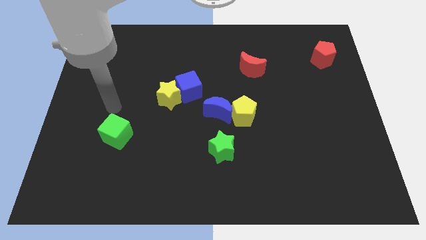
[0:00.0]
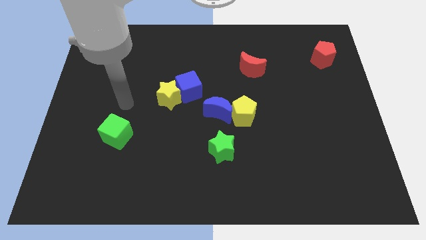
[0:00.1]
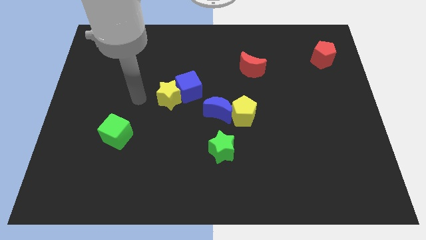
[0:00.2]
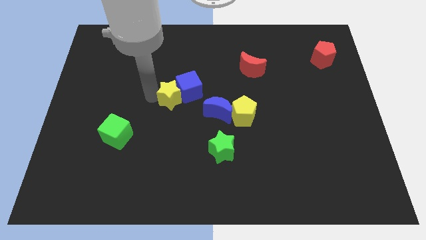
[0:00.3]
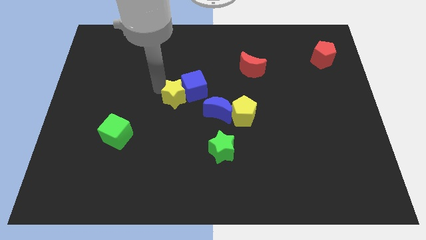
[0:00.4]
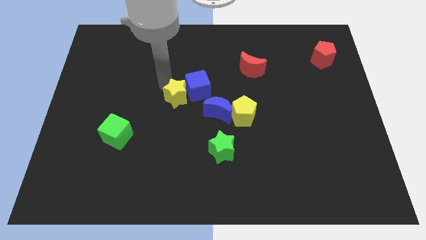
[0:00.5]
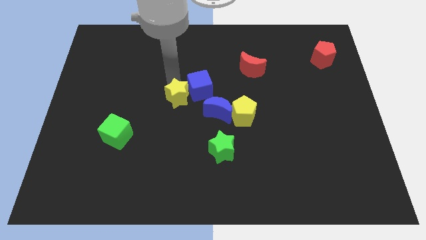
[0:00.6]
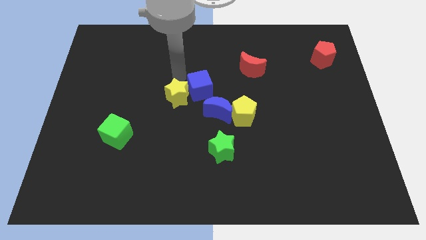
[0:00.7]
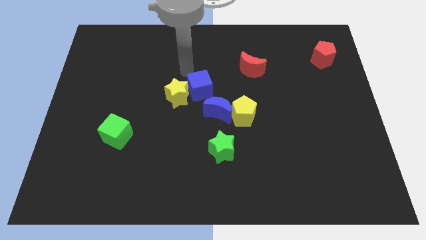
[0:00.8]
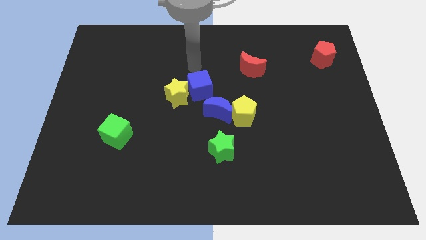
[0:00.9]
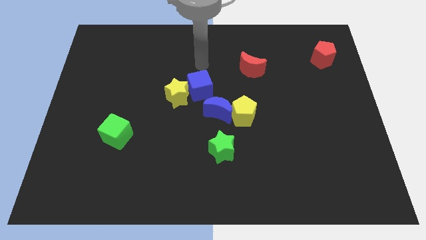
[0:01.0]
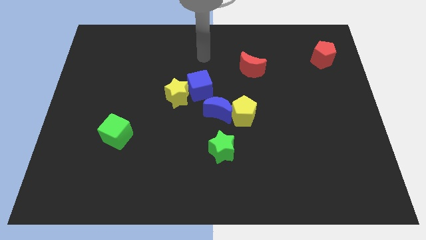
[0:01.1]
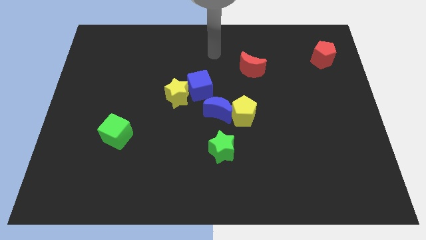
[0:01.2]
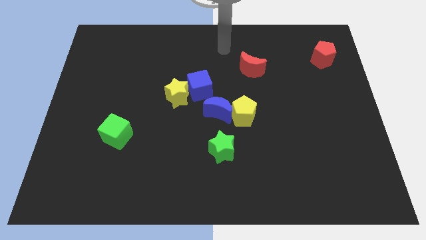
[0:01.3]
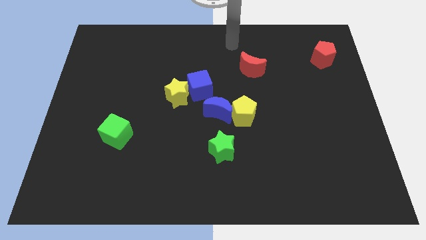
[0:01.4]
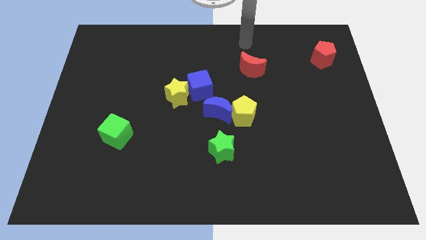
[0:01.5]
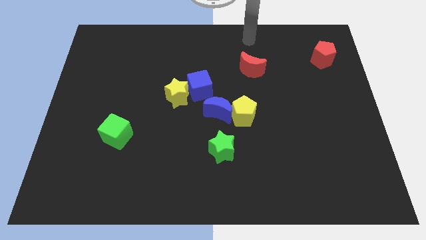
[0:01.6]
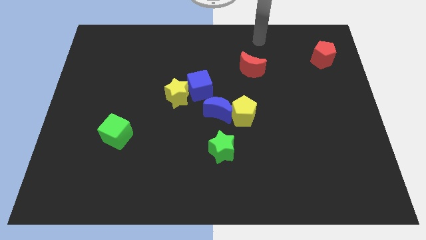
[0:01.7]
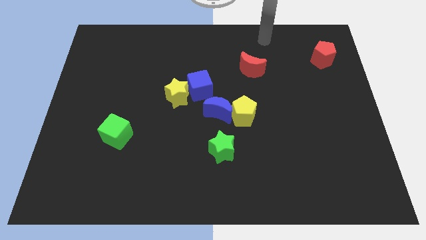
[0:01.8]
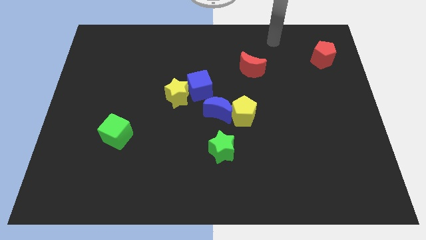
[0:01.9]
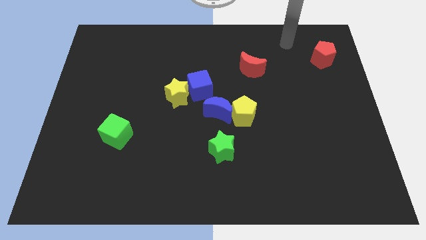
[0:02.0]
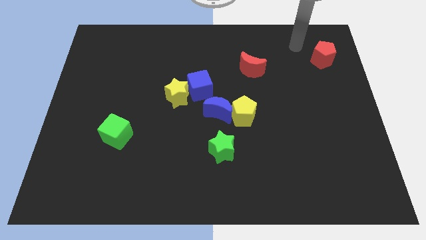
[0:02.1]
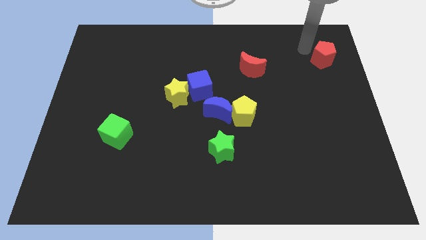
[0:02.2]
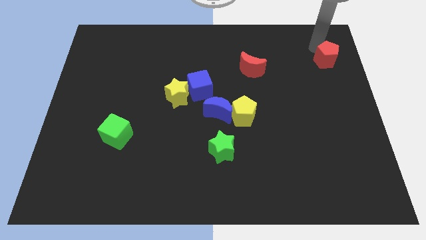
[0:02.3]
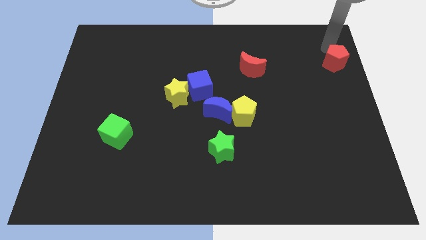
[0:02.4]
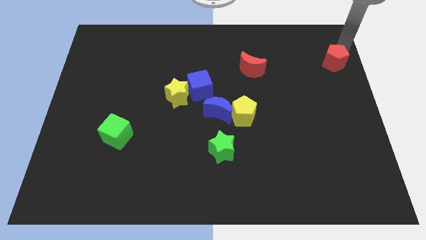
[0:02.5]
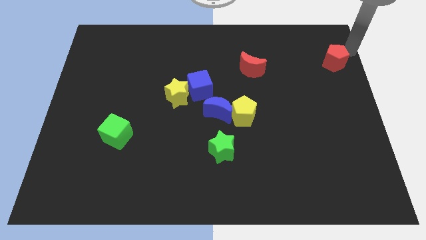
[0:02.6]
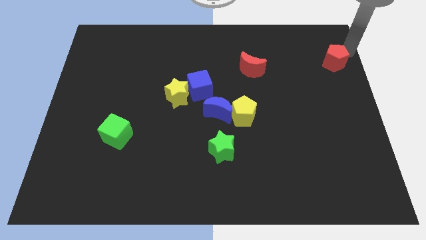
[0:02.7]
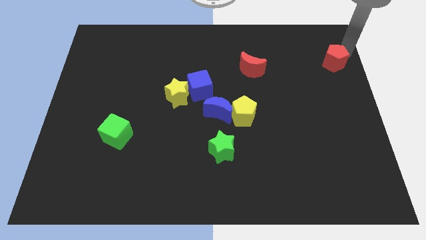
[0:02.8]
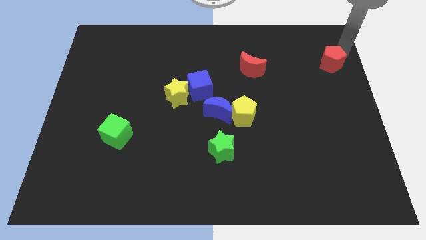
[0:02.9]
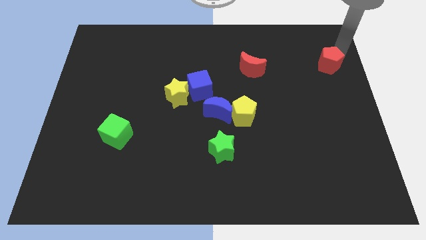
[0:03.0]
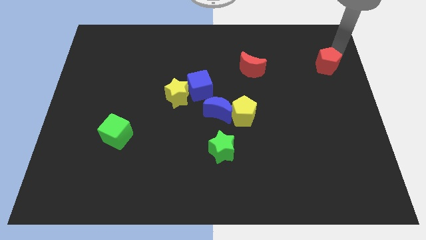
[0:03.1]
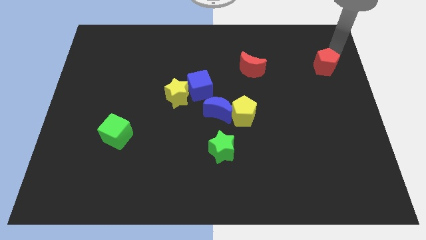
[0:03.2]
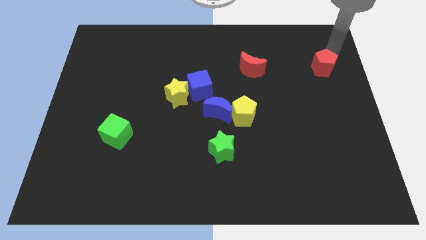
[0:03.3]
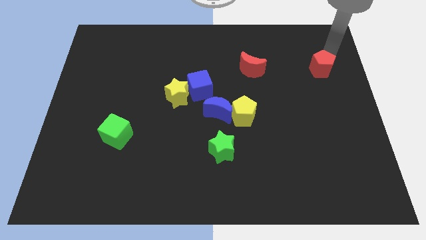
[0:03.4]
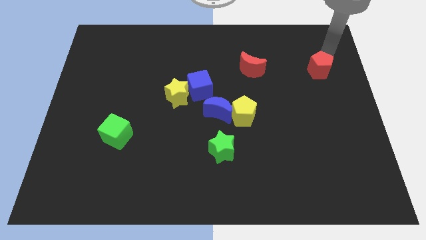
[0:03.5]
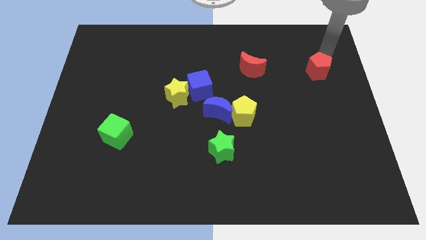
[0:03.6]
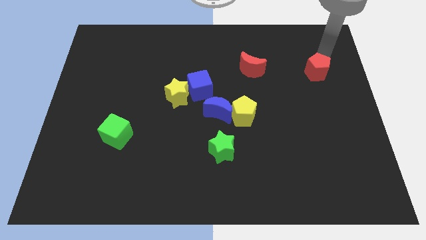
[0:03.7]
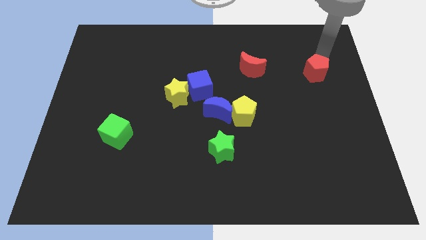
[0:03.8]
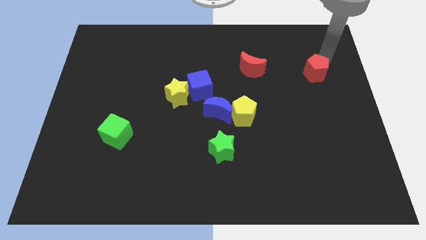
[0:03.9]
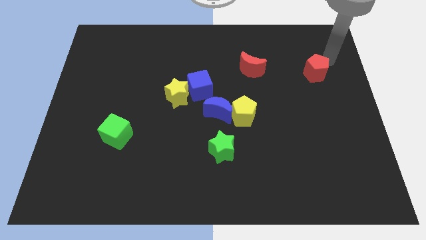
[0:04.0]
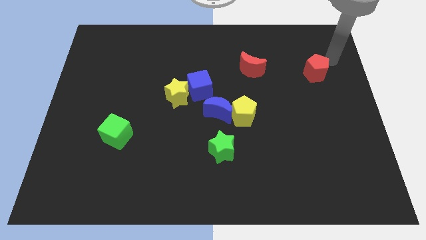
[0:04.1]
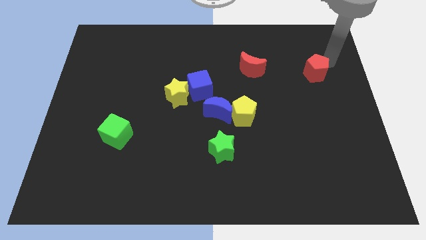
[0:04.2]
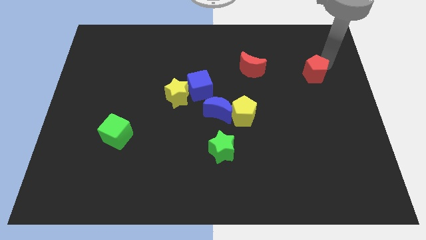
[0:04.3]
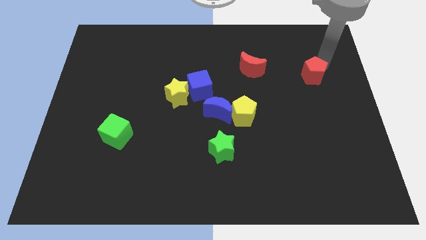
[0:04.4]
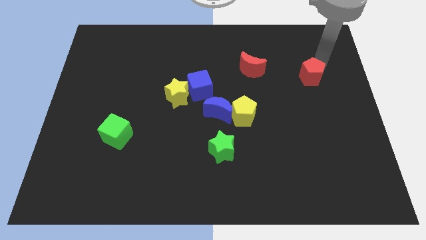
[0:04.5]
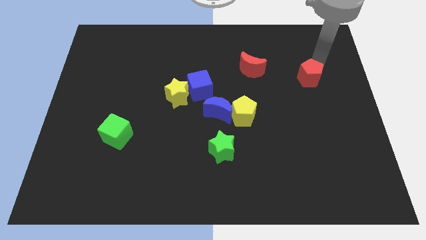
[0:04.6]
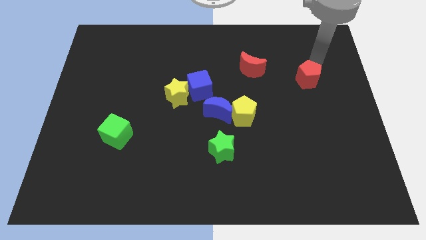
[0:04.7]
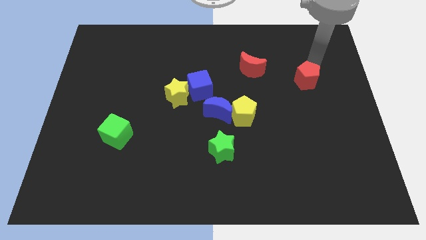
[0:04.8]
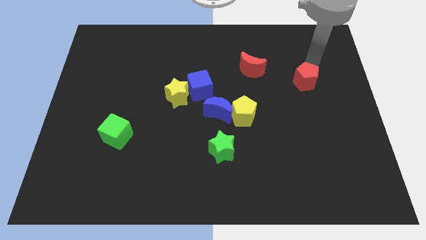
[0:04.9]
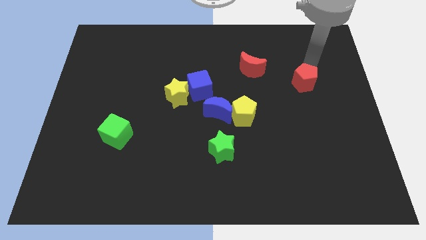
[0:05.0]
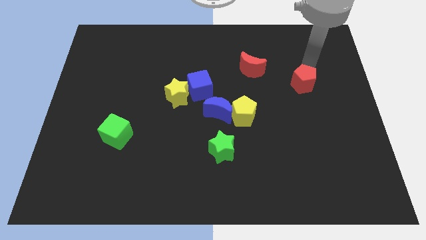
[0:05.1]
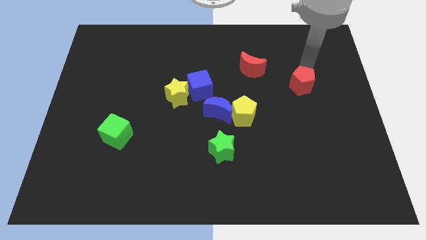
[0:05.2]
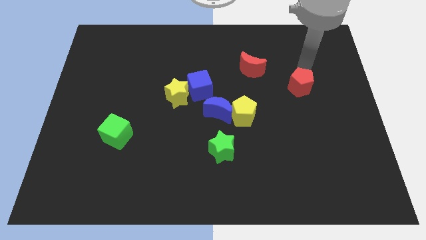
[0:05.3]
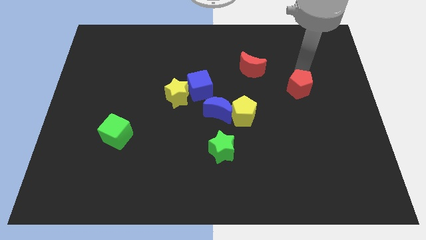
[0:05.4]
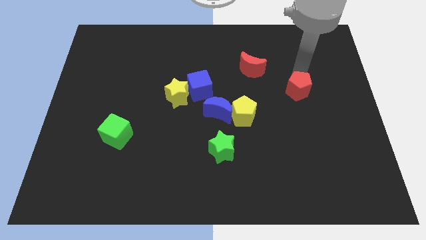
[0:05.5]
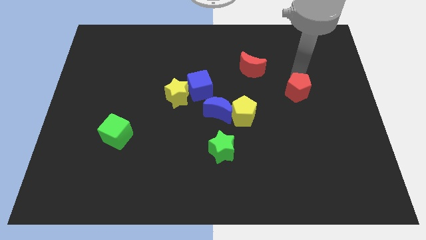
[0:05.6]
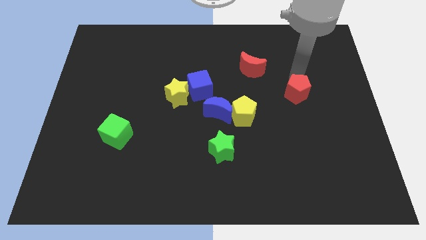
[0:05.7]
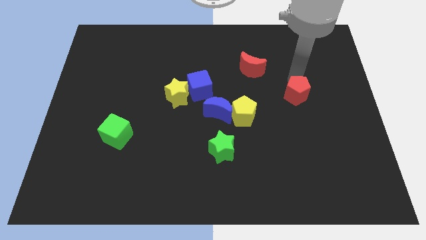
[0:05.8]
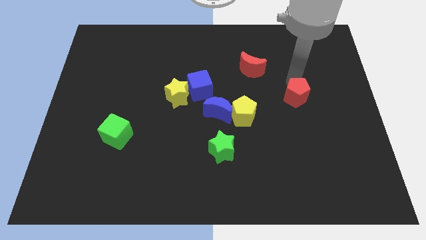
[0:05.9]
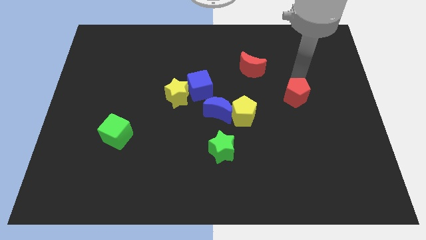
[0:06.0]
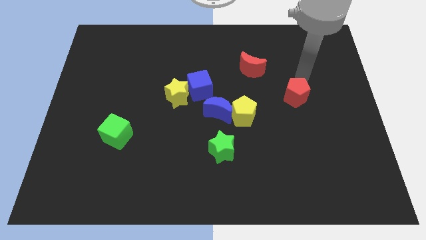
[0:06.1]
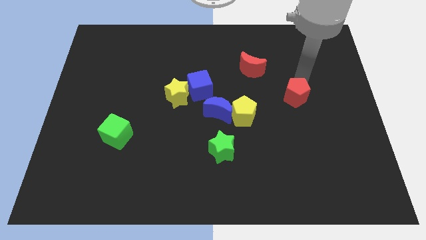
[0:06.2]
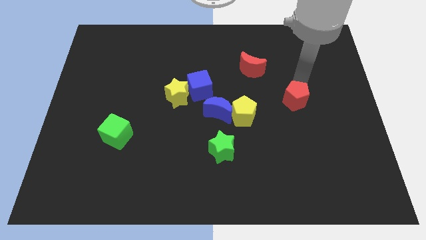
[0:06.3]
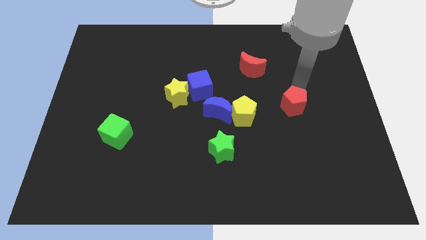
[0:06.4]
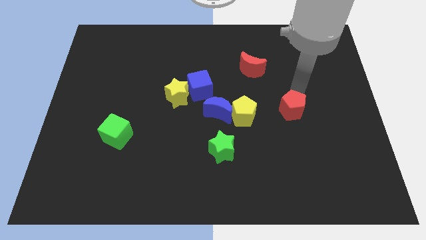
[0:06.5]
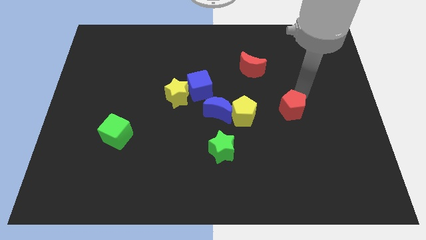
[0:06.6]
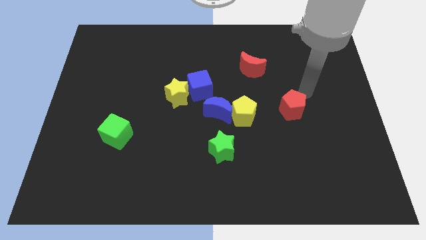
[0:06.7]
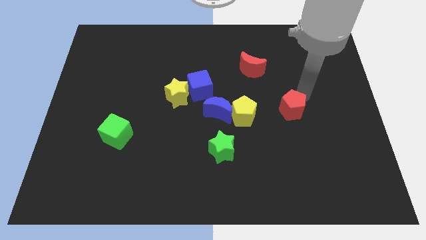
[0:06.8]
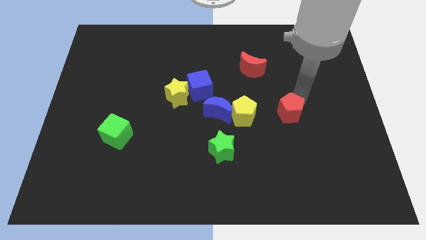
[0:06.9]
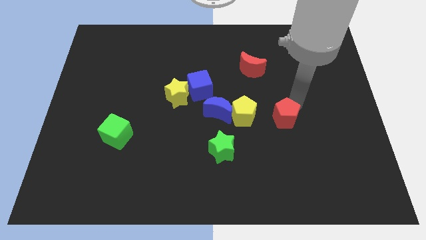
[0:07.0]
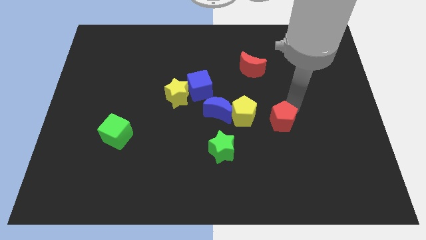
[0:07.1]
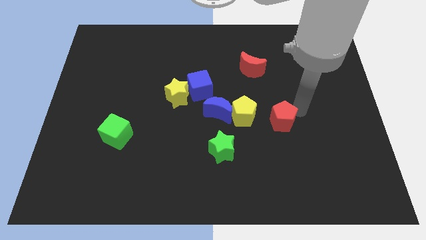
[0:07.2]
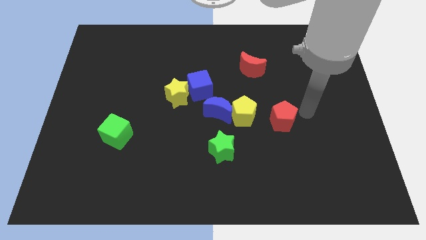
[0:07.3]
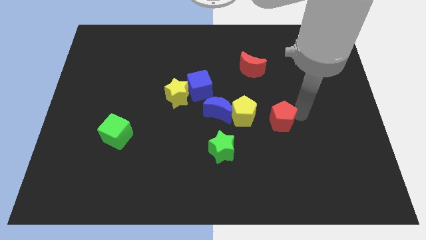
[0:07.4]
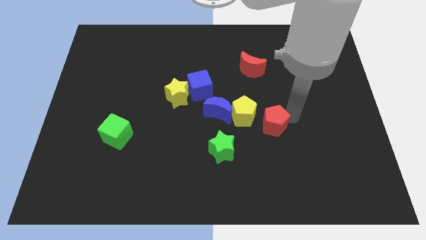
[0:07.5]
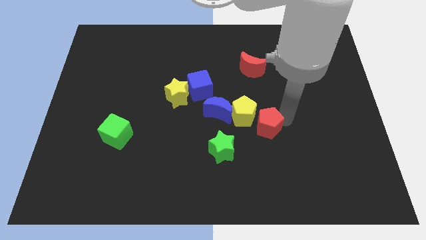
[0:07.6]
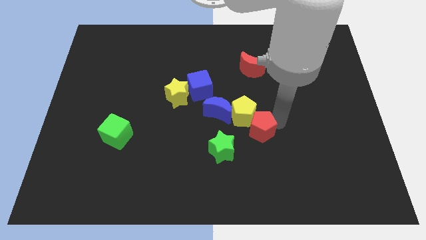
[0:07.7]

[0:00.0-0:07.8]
put the red pentagon to the bottom right side of the blue moon
